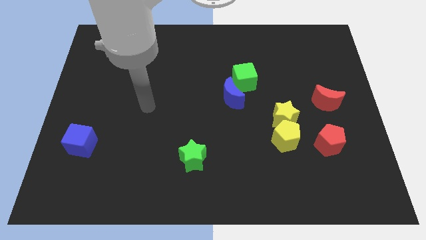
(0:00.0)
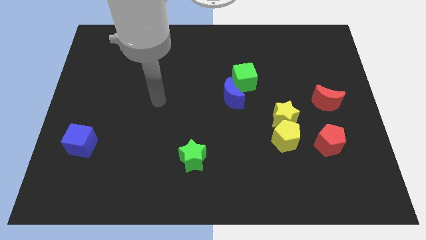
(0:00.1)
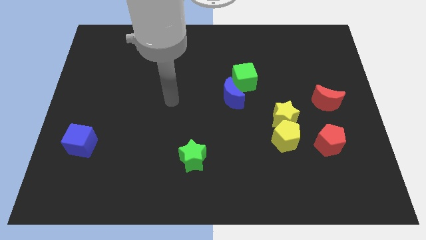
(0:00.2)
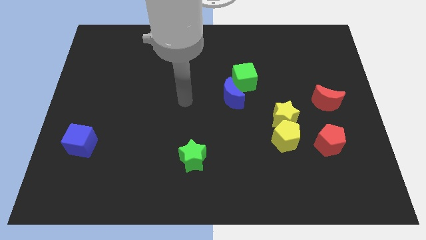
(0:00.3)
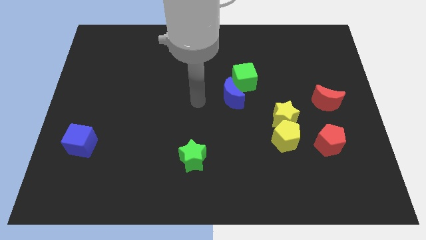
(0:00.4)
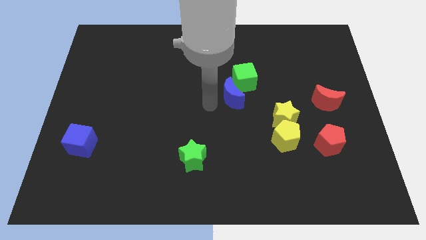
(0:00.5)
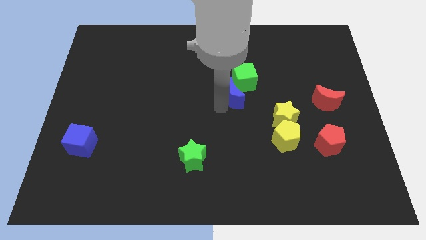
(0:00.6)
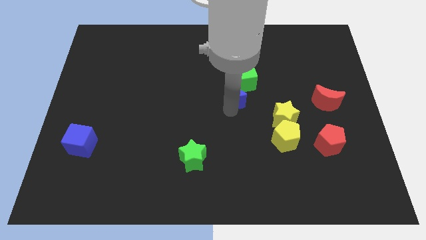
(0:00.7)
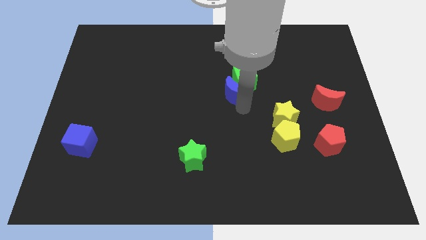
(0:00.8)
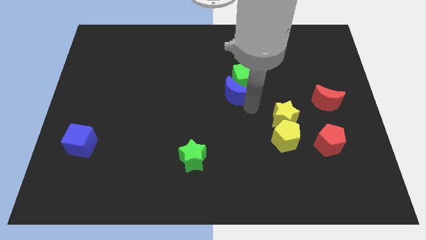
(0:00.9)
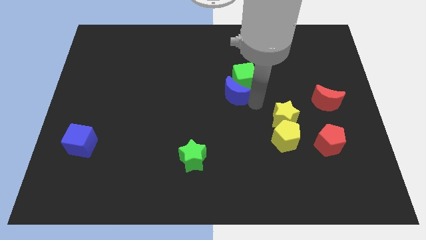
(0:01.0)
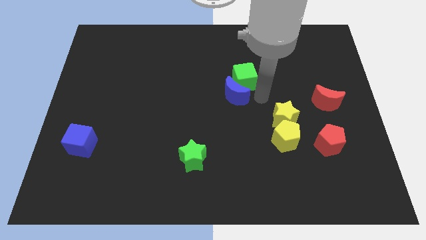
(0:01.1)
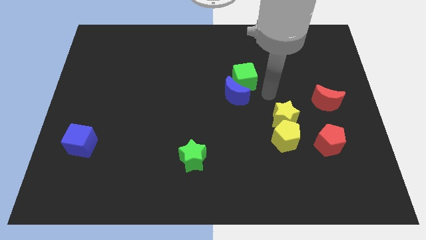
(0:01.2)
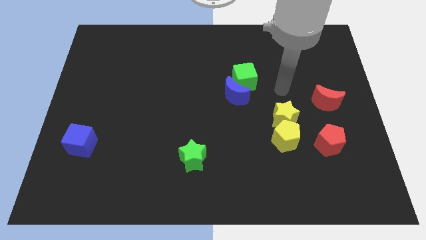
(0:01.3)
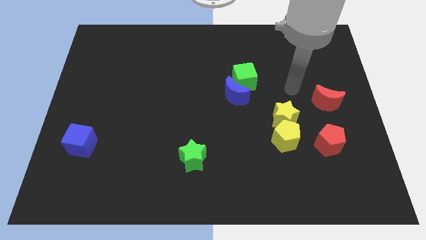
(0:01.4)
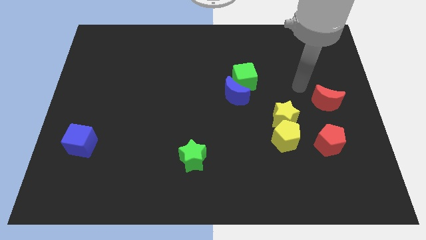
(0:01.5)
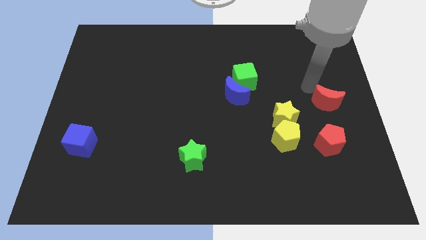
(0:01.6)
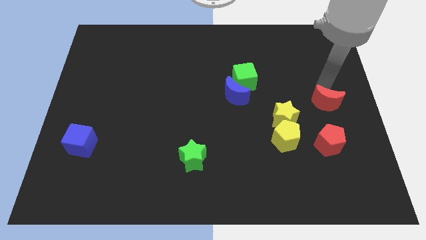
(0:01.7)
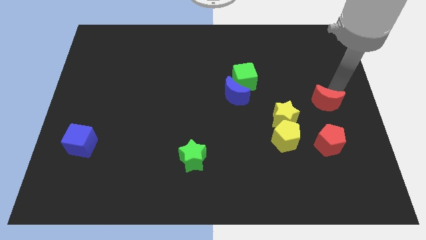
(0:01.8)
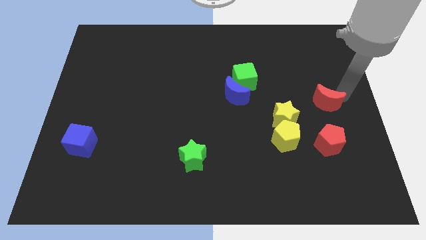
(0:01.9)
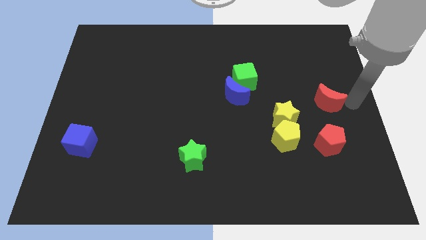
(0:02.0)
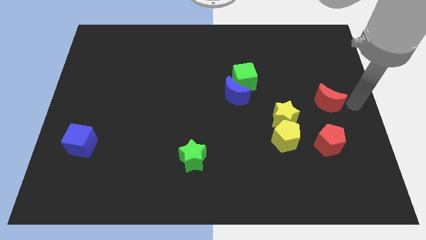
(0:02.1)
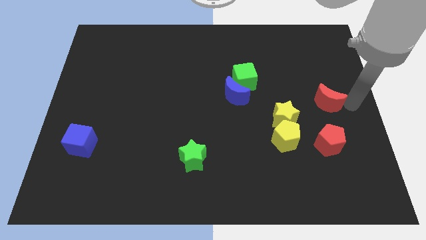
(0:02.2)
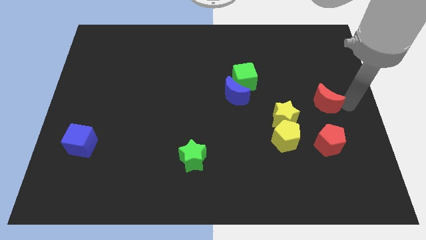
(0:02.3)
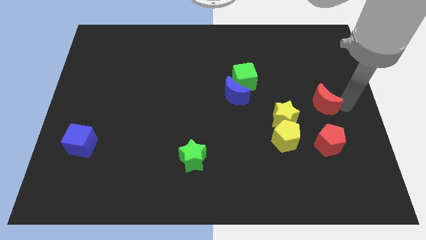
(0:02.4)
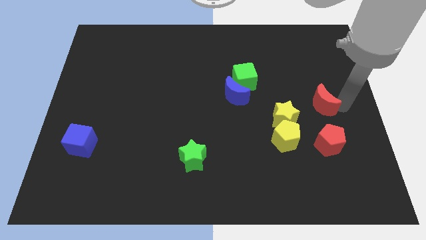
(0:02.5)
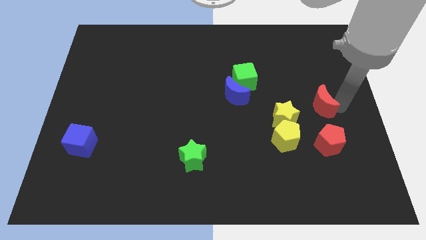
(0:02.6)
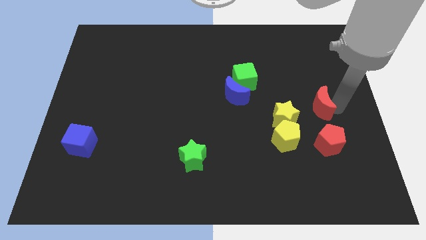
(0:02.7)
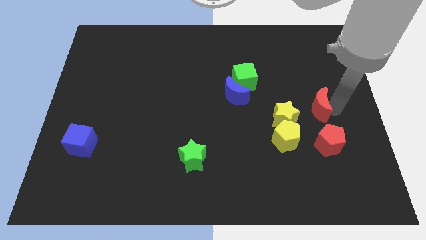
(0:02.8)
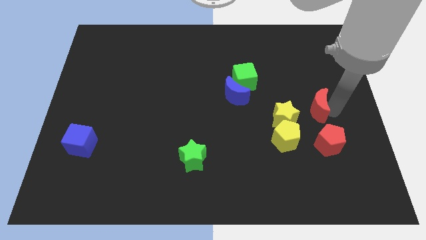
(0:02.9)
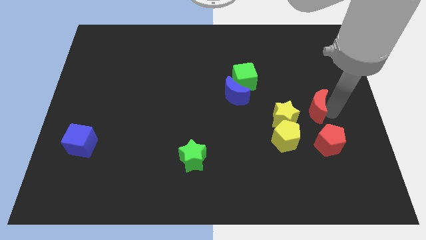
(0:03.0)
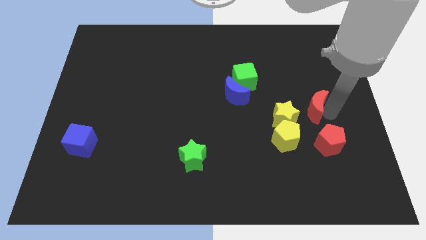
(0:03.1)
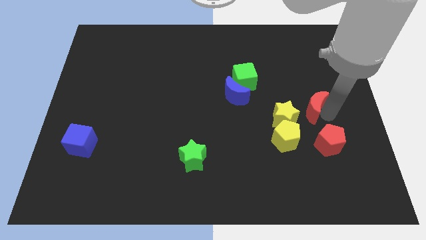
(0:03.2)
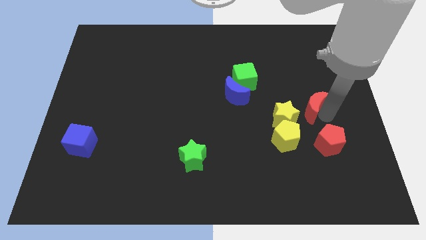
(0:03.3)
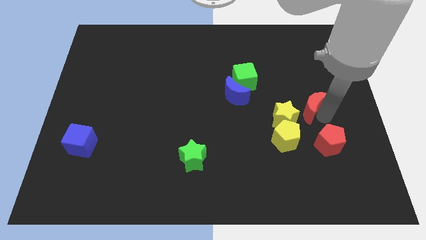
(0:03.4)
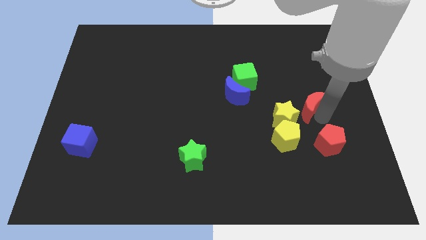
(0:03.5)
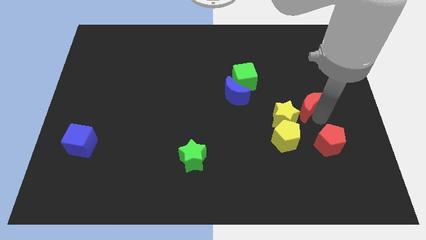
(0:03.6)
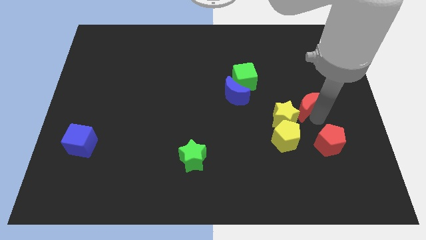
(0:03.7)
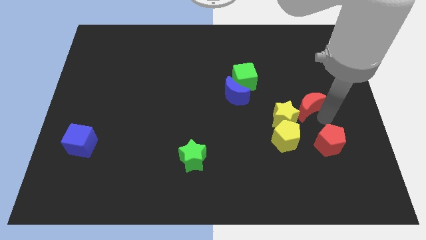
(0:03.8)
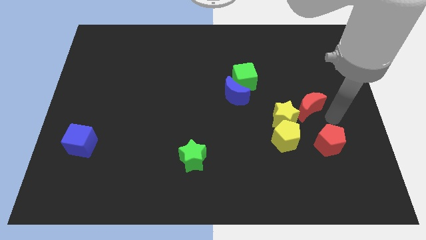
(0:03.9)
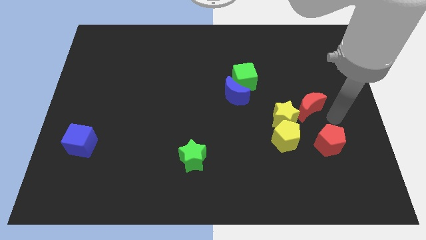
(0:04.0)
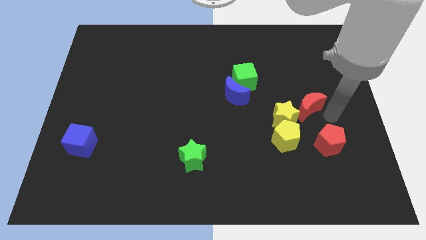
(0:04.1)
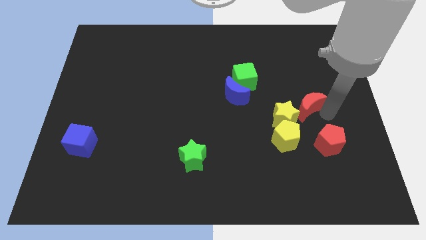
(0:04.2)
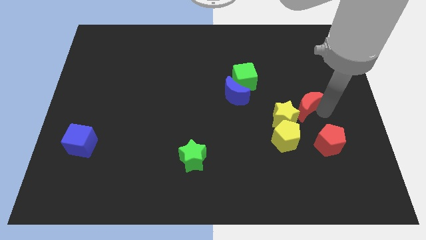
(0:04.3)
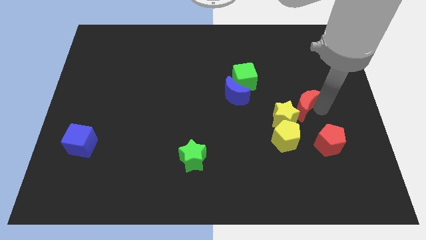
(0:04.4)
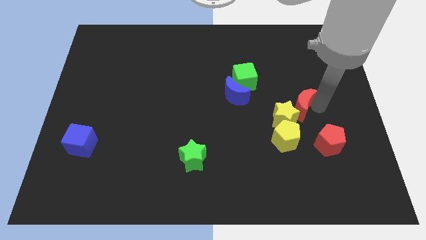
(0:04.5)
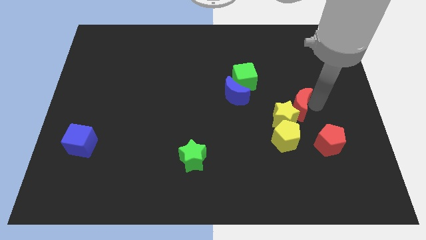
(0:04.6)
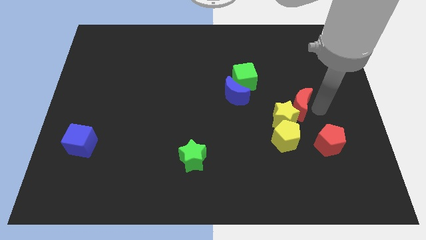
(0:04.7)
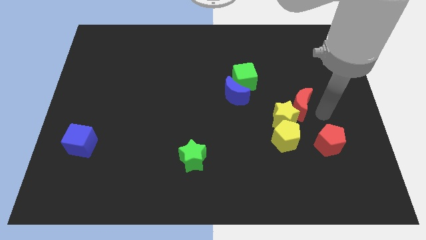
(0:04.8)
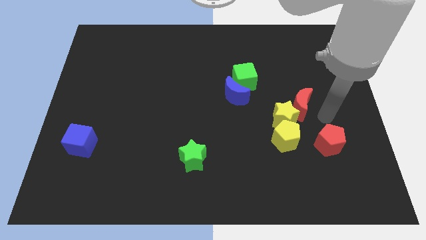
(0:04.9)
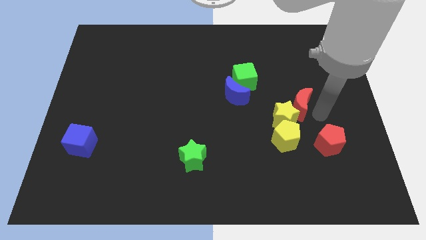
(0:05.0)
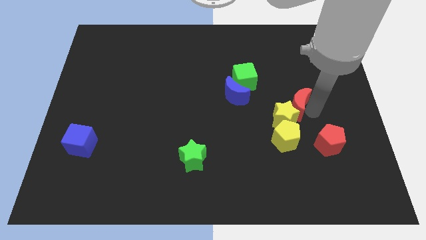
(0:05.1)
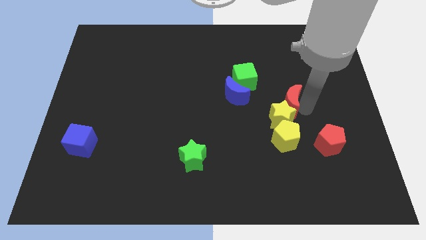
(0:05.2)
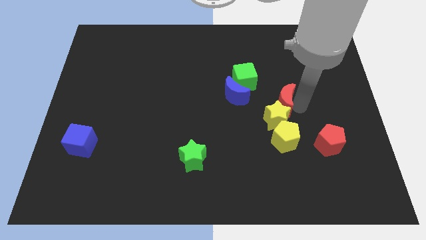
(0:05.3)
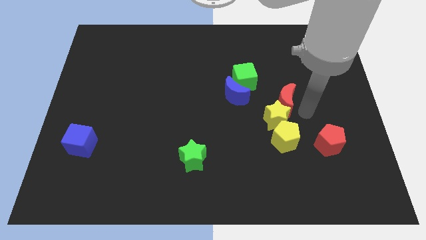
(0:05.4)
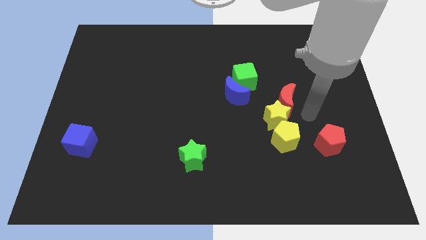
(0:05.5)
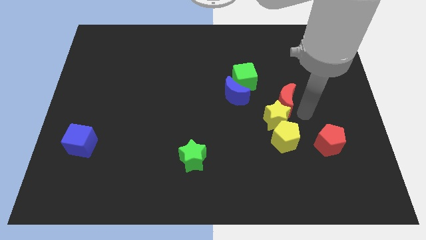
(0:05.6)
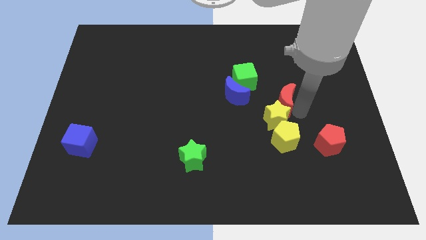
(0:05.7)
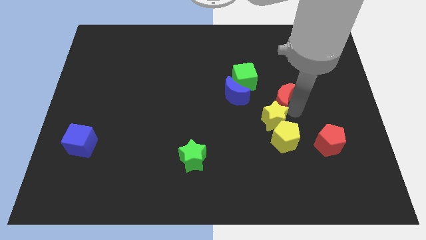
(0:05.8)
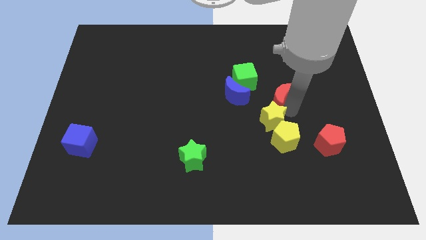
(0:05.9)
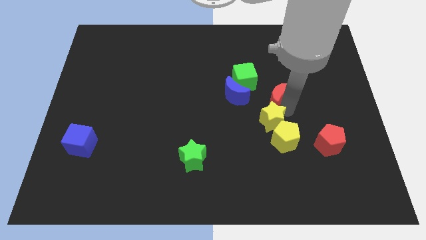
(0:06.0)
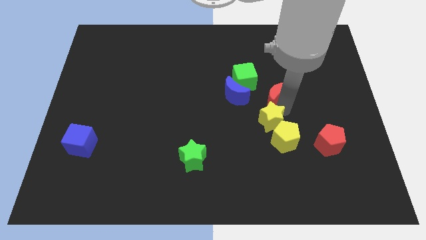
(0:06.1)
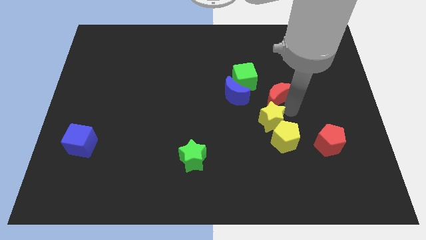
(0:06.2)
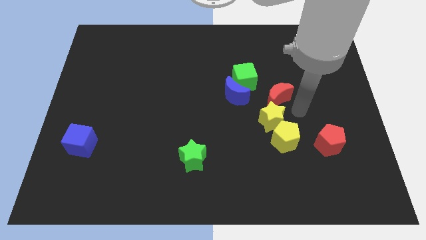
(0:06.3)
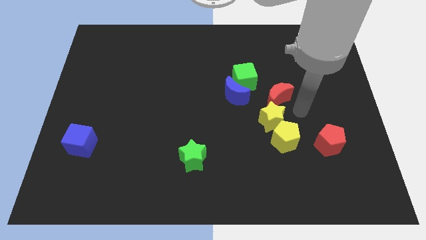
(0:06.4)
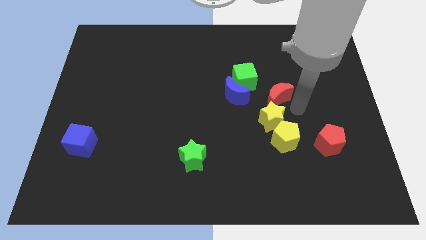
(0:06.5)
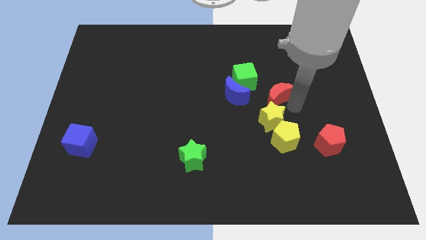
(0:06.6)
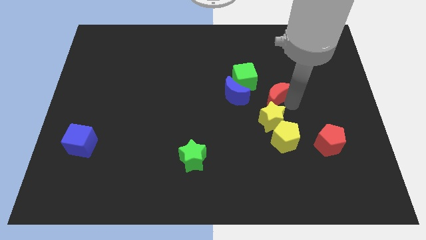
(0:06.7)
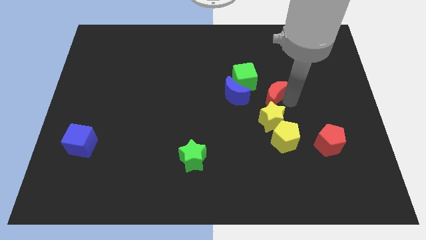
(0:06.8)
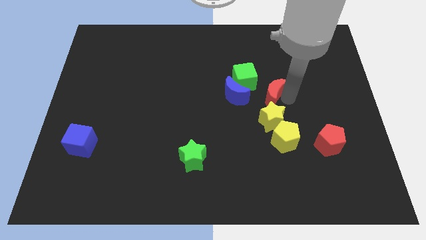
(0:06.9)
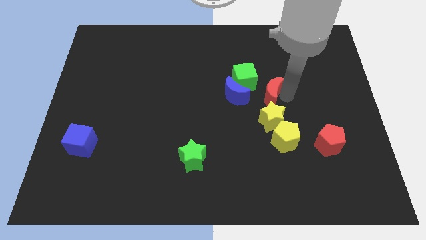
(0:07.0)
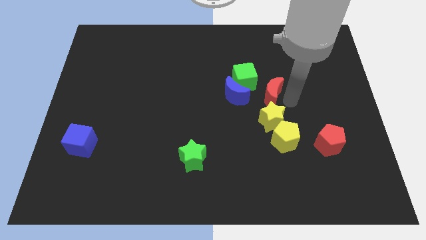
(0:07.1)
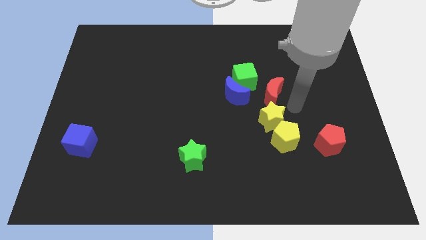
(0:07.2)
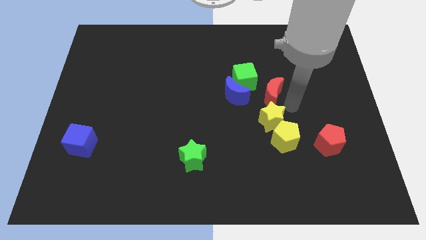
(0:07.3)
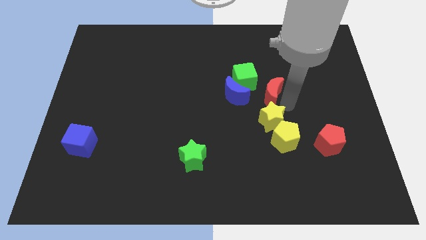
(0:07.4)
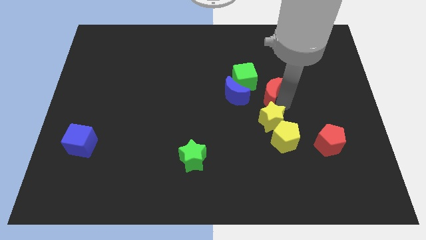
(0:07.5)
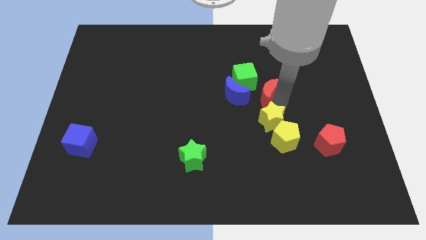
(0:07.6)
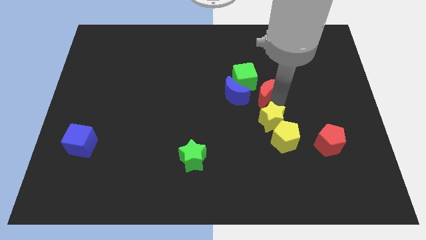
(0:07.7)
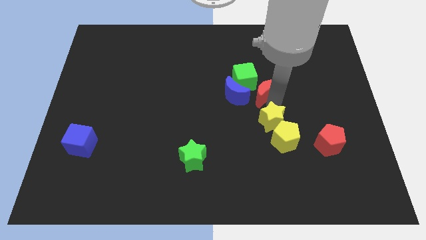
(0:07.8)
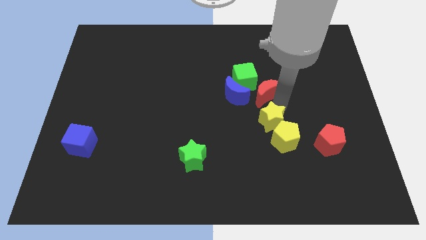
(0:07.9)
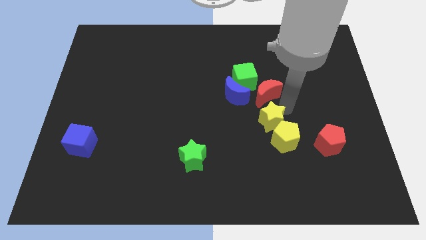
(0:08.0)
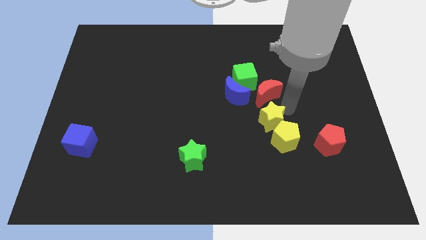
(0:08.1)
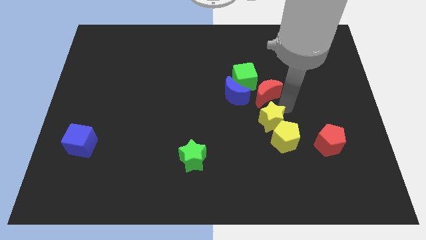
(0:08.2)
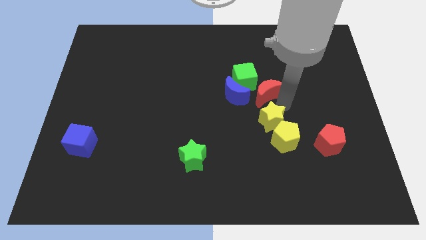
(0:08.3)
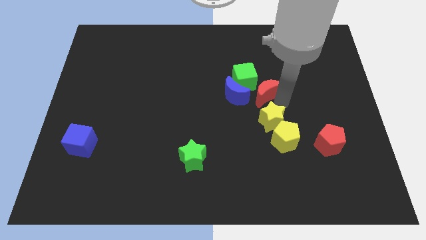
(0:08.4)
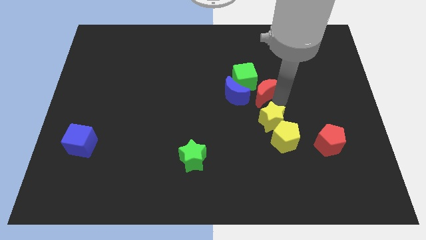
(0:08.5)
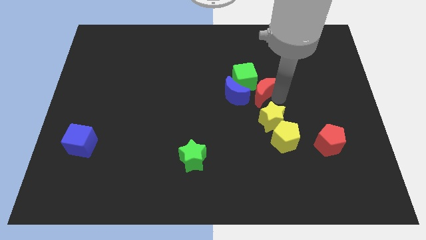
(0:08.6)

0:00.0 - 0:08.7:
slide the red moon next to the green cube
